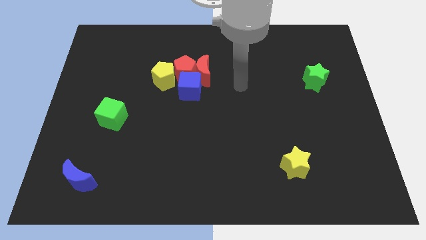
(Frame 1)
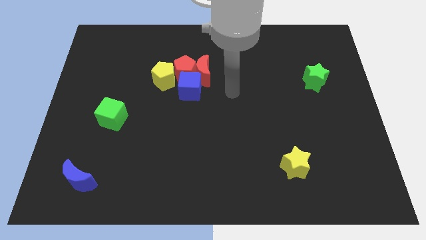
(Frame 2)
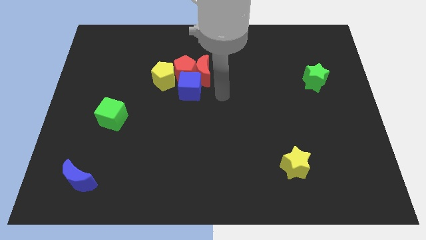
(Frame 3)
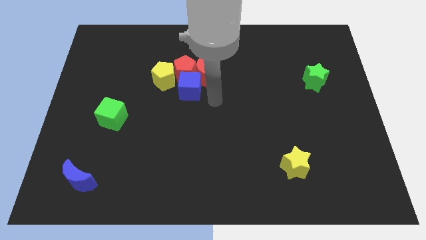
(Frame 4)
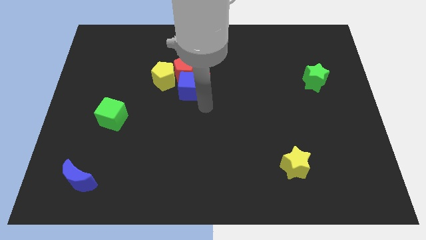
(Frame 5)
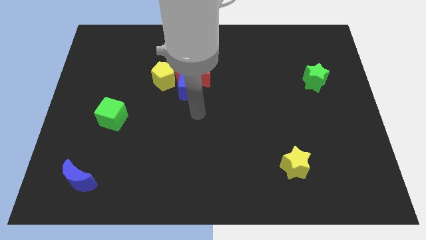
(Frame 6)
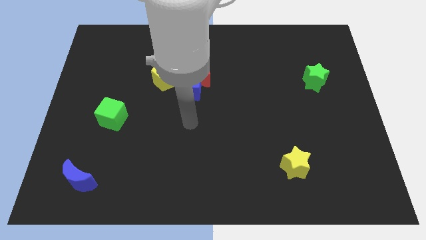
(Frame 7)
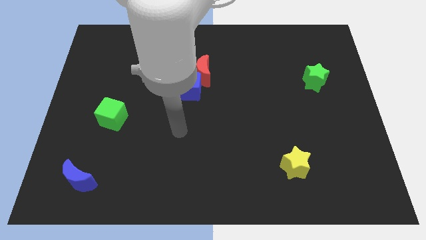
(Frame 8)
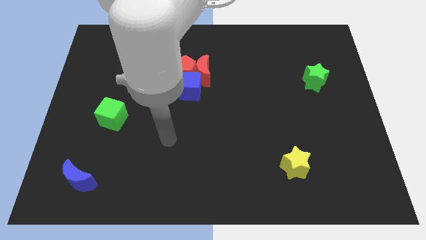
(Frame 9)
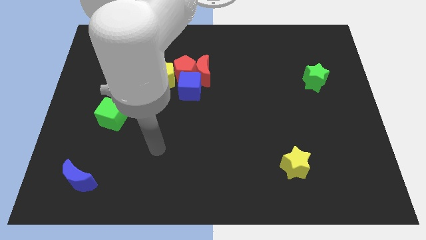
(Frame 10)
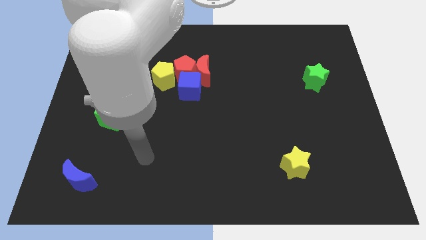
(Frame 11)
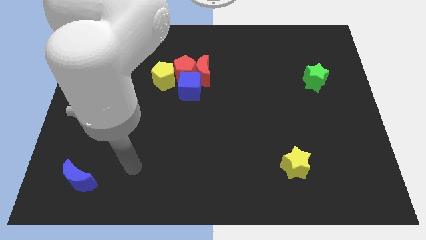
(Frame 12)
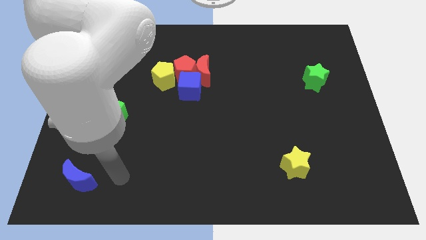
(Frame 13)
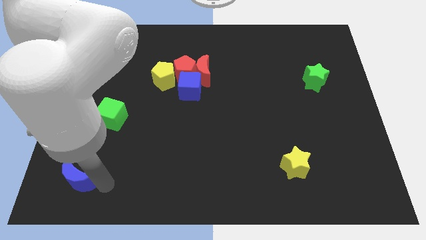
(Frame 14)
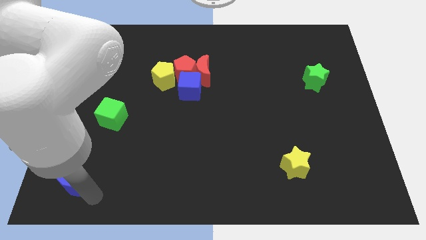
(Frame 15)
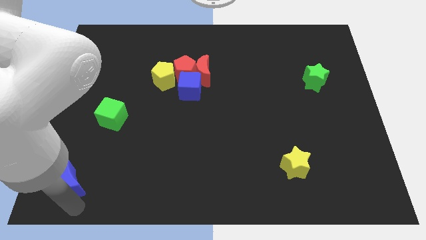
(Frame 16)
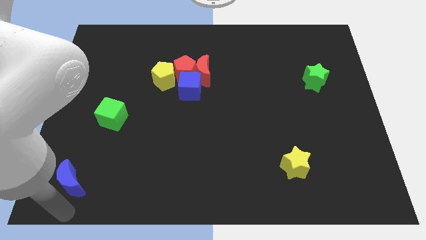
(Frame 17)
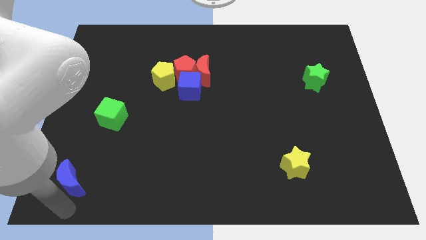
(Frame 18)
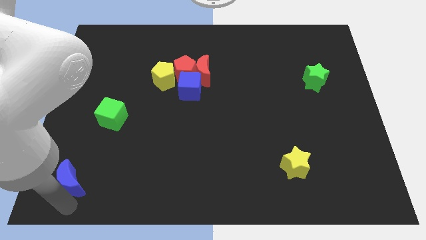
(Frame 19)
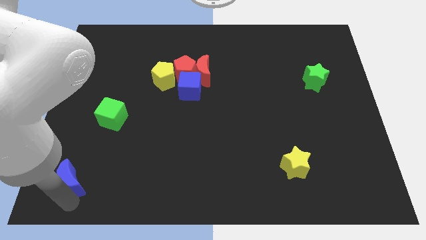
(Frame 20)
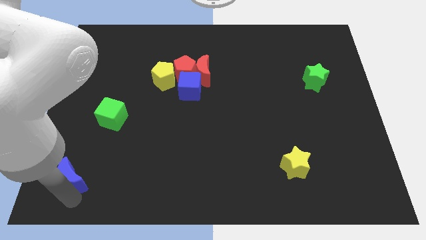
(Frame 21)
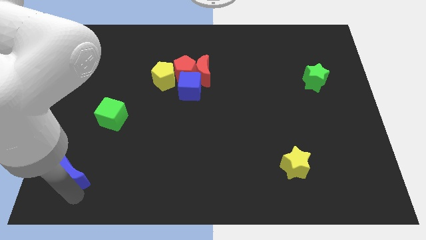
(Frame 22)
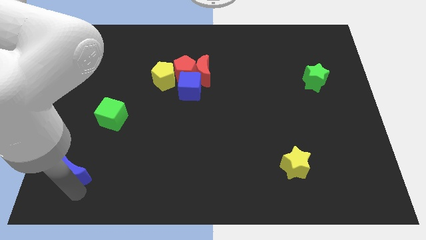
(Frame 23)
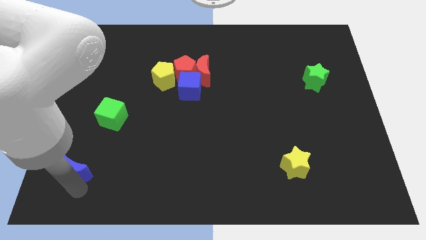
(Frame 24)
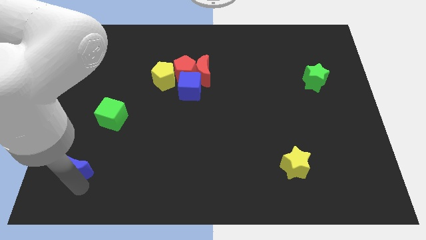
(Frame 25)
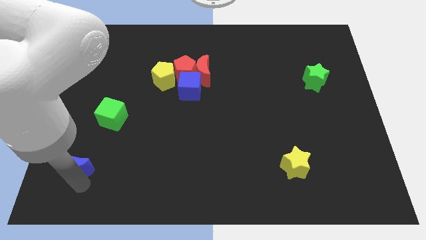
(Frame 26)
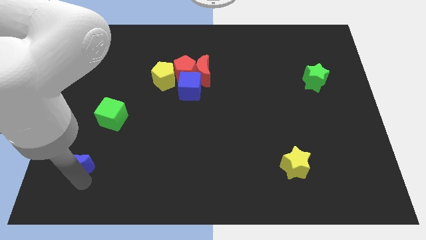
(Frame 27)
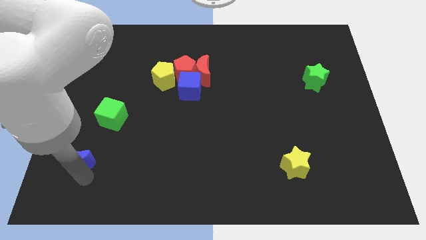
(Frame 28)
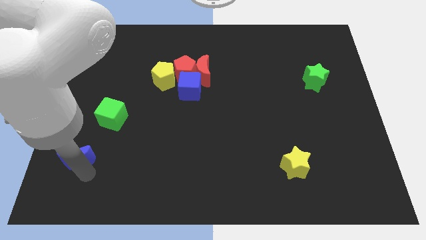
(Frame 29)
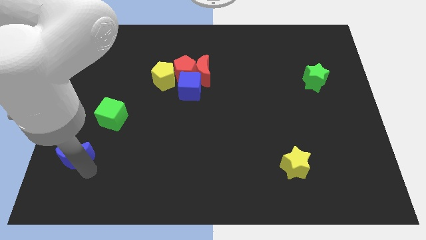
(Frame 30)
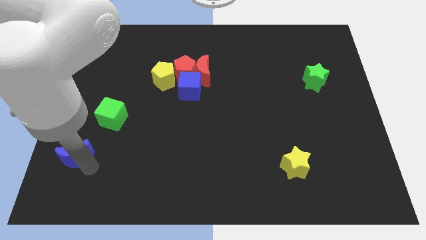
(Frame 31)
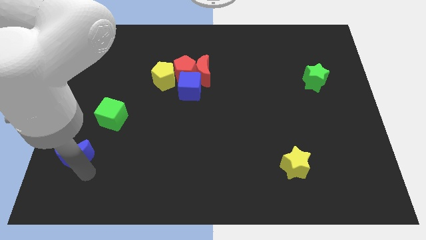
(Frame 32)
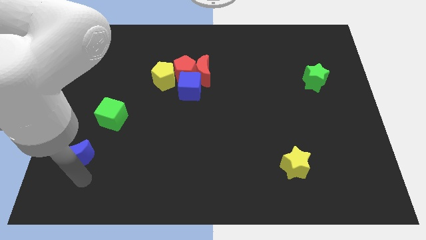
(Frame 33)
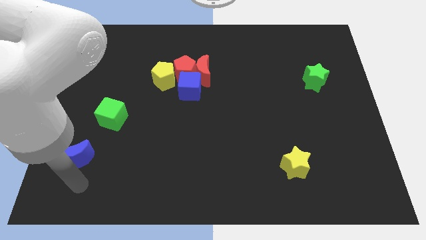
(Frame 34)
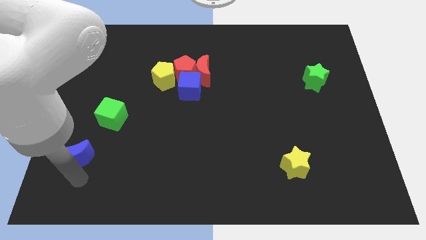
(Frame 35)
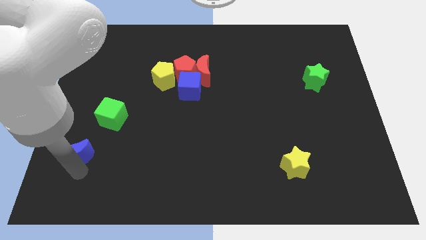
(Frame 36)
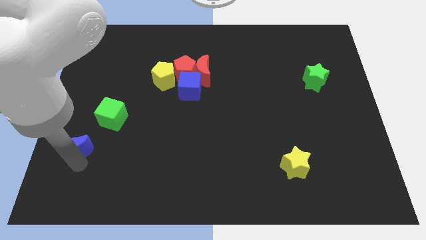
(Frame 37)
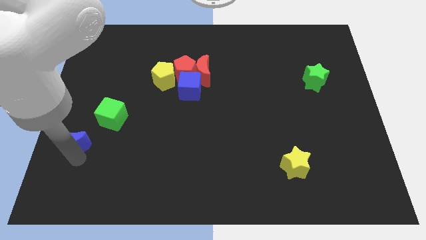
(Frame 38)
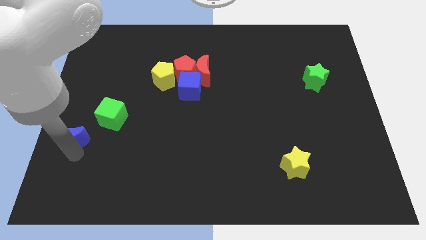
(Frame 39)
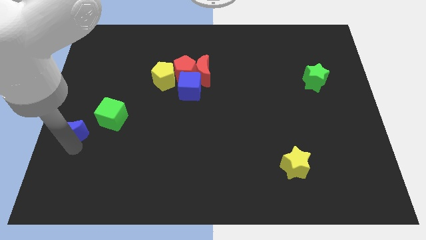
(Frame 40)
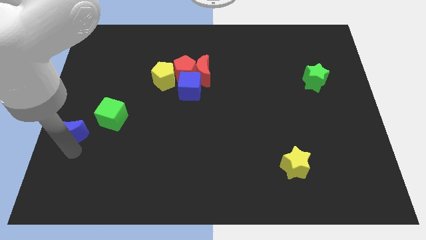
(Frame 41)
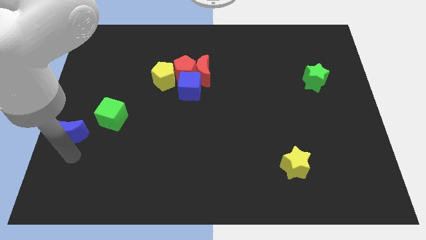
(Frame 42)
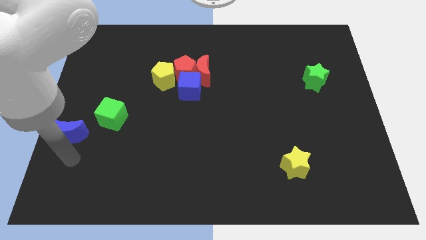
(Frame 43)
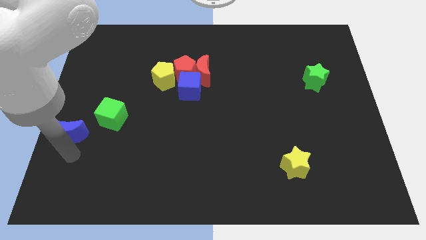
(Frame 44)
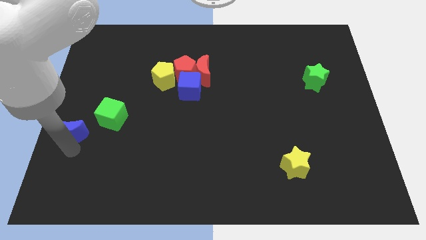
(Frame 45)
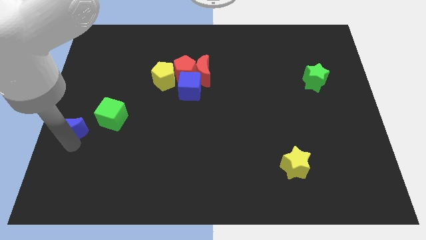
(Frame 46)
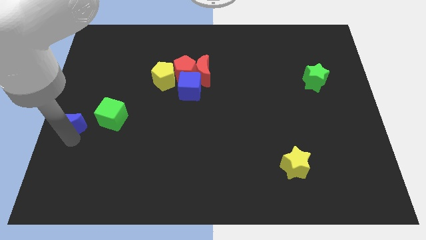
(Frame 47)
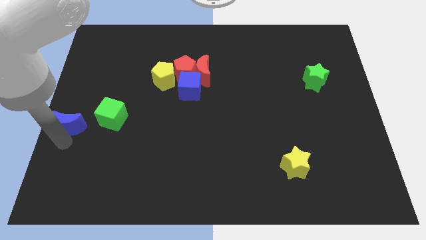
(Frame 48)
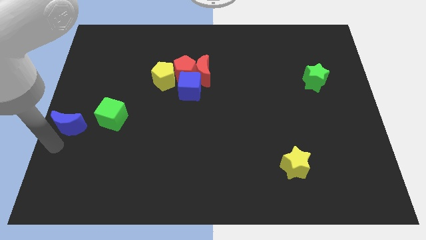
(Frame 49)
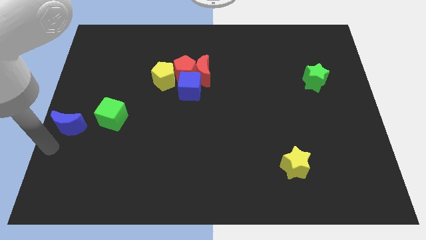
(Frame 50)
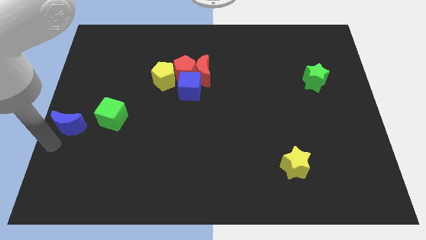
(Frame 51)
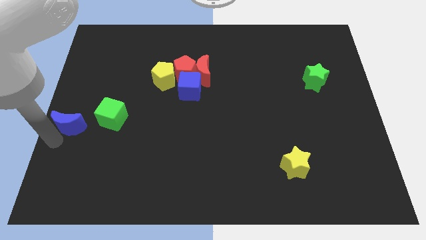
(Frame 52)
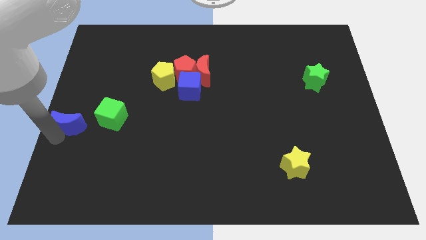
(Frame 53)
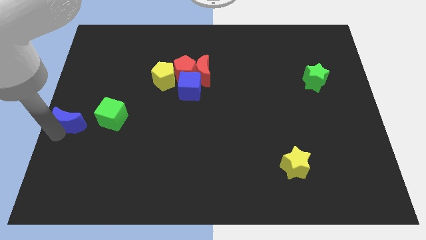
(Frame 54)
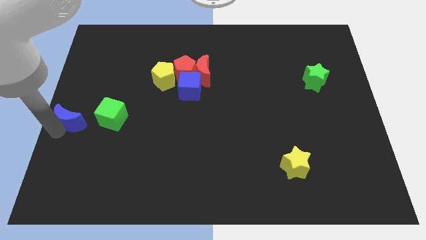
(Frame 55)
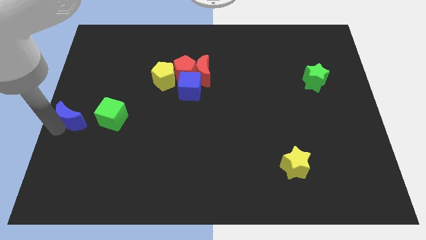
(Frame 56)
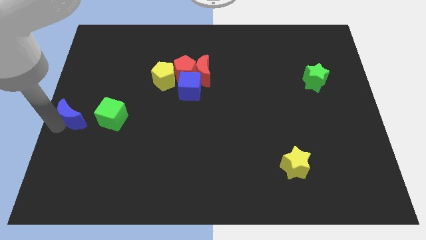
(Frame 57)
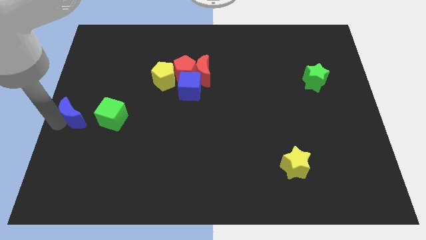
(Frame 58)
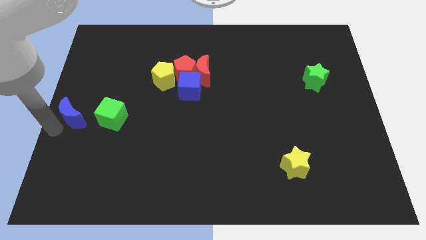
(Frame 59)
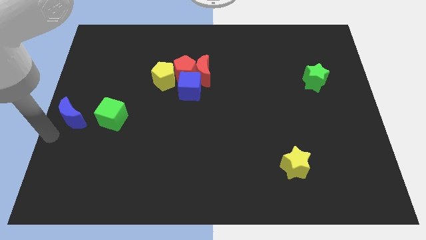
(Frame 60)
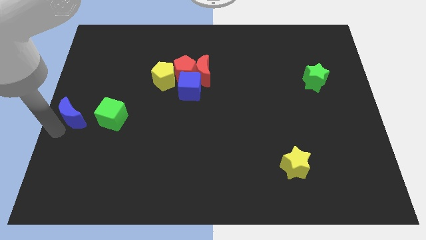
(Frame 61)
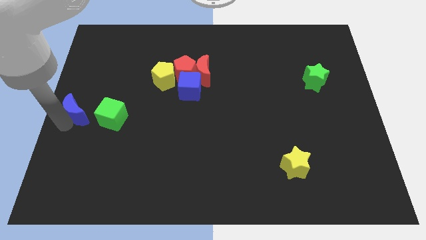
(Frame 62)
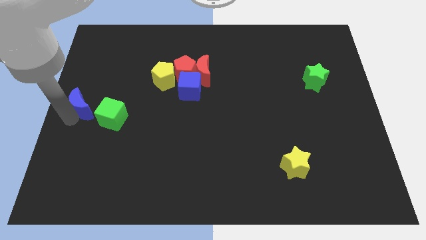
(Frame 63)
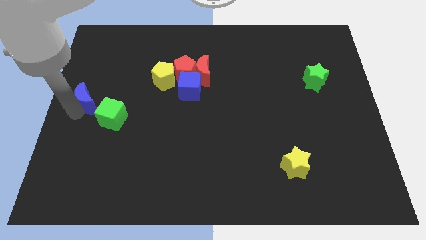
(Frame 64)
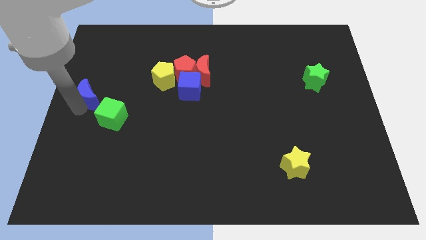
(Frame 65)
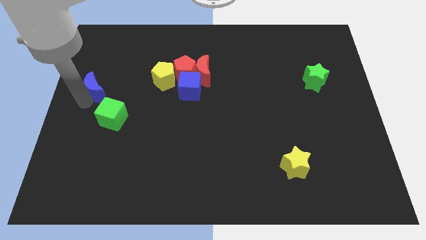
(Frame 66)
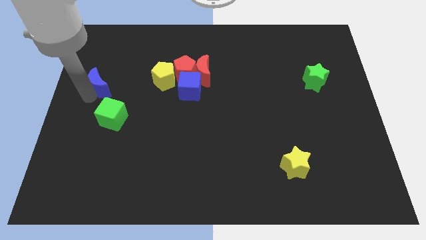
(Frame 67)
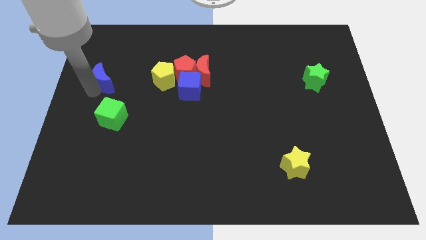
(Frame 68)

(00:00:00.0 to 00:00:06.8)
push the blue moon just left of the yellow pentagon

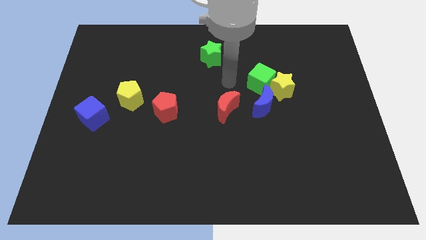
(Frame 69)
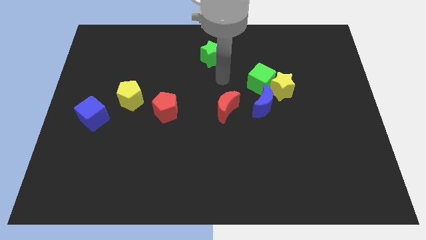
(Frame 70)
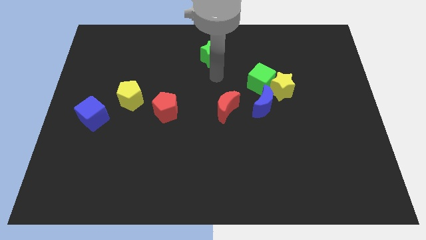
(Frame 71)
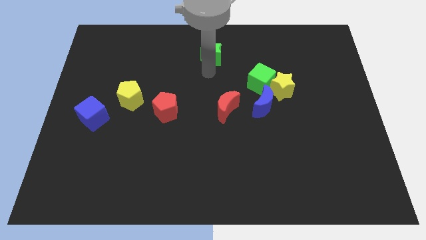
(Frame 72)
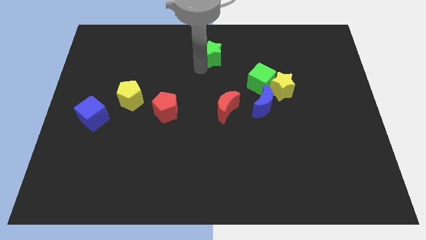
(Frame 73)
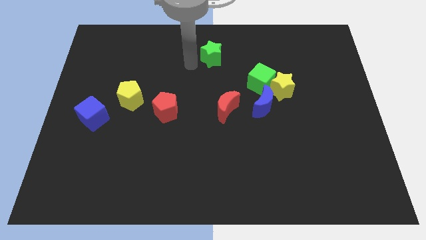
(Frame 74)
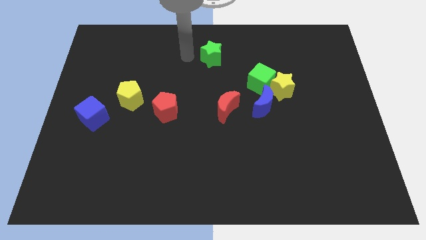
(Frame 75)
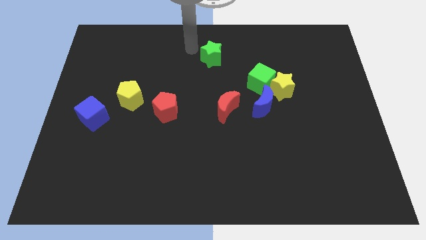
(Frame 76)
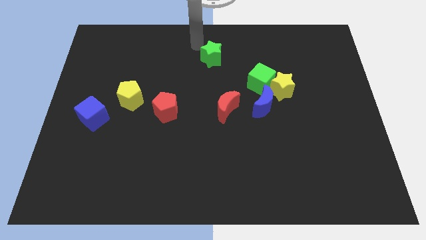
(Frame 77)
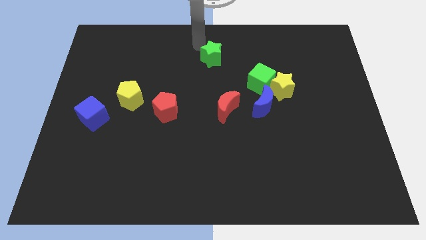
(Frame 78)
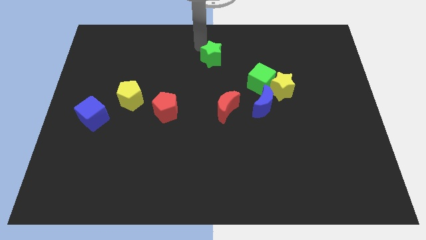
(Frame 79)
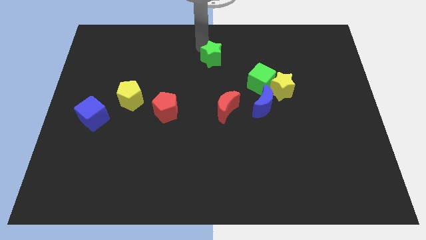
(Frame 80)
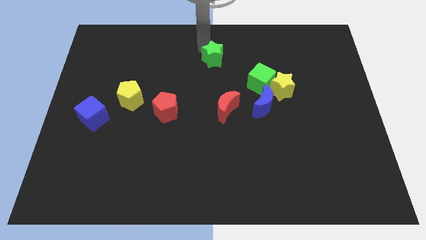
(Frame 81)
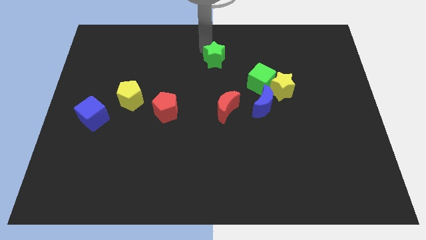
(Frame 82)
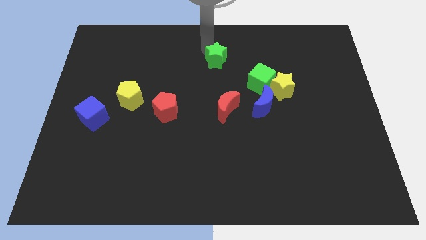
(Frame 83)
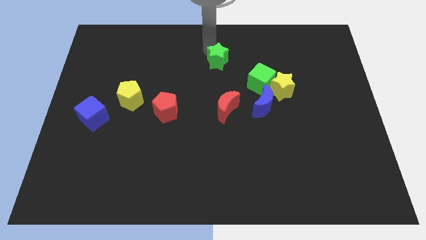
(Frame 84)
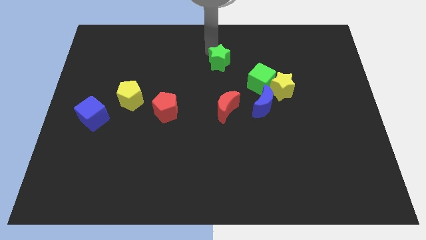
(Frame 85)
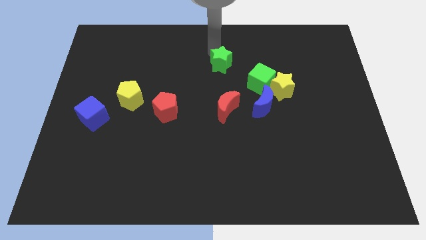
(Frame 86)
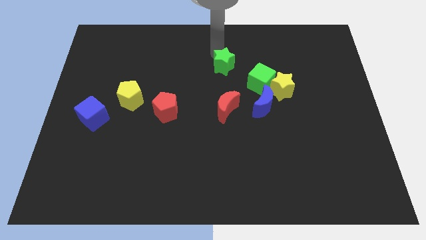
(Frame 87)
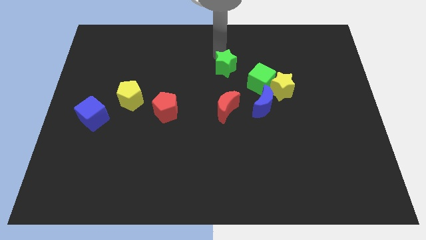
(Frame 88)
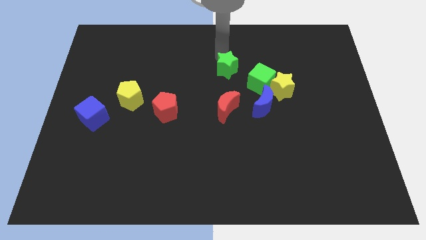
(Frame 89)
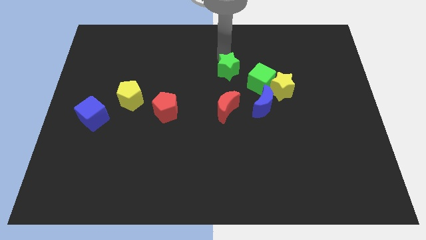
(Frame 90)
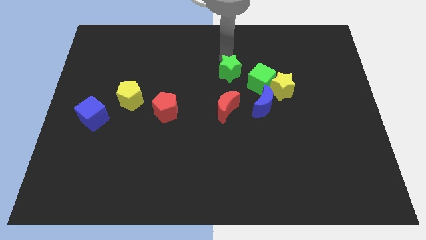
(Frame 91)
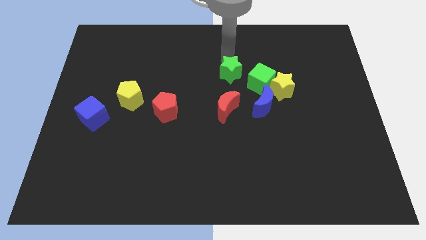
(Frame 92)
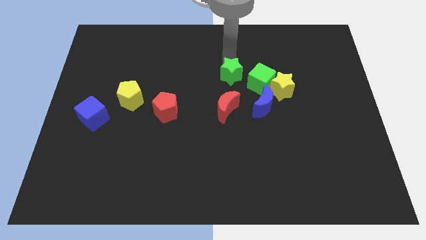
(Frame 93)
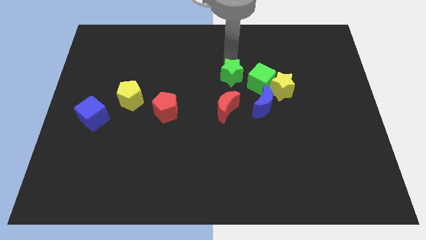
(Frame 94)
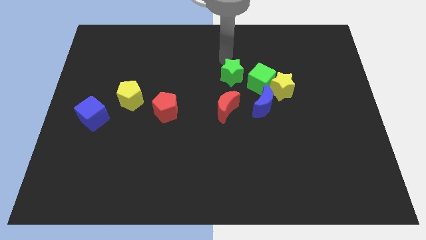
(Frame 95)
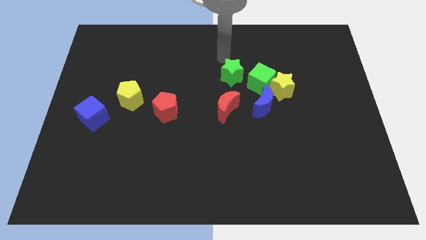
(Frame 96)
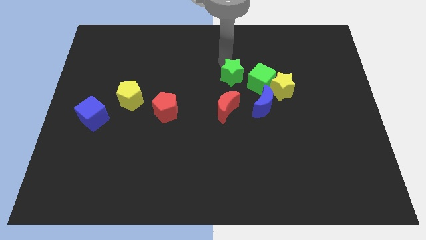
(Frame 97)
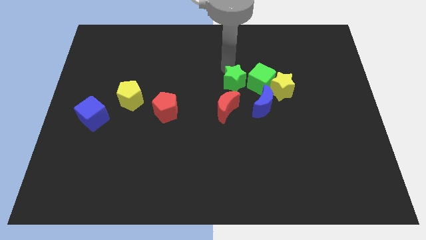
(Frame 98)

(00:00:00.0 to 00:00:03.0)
push the green star to the bottom left side of the green cube
